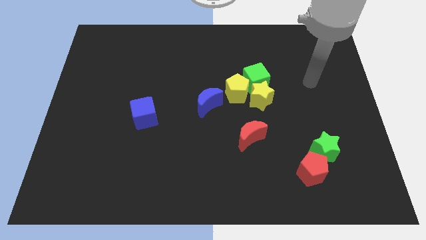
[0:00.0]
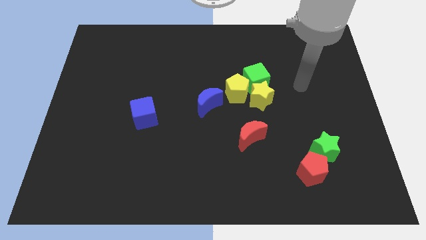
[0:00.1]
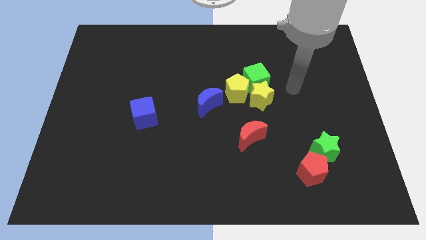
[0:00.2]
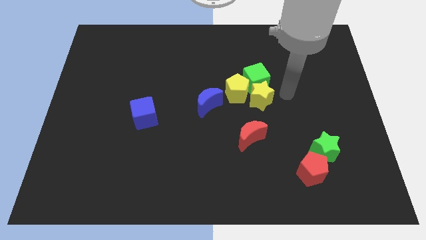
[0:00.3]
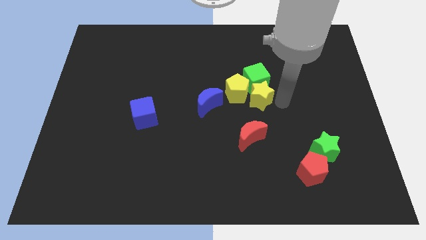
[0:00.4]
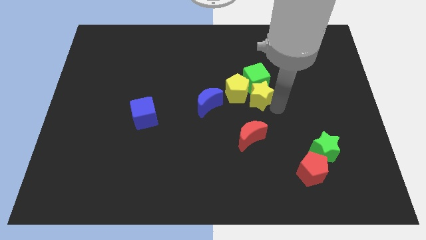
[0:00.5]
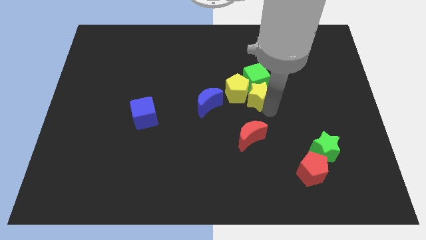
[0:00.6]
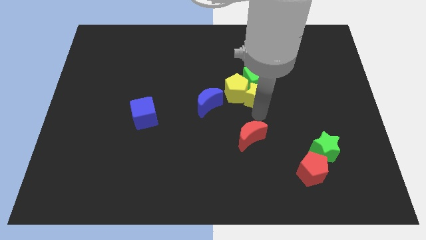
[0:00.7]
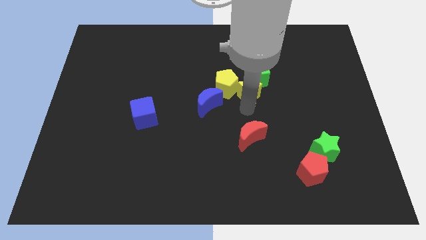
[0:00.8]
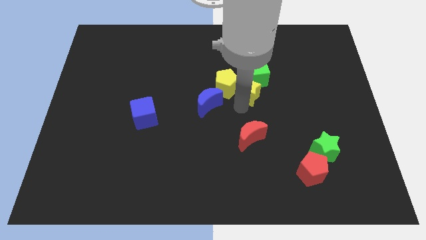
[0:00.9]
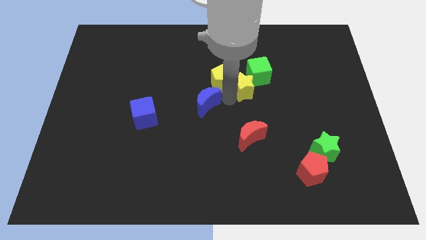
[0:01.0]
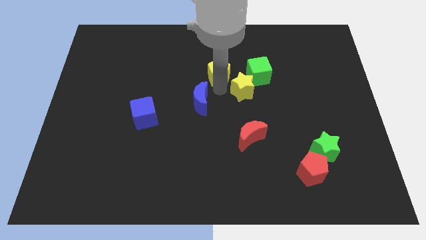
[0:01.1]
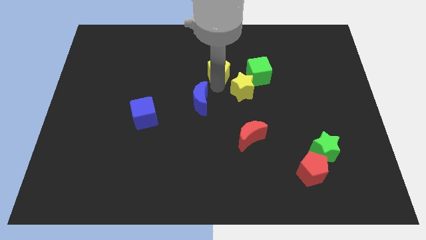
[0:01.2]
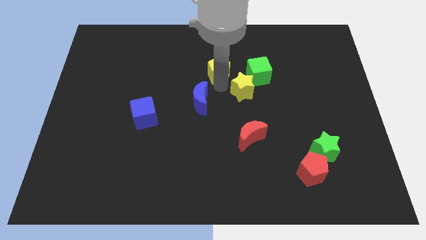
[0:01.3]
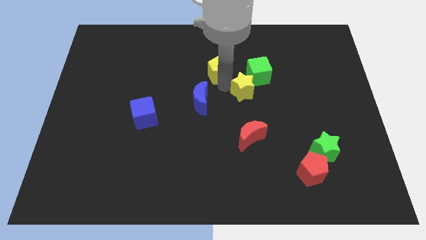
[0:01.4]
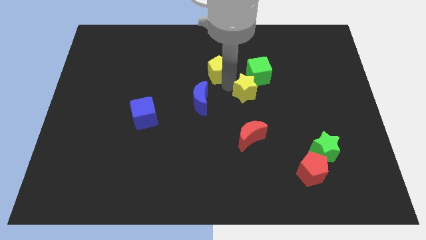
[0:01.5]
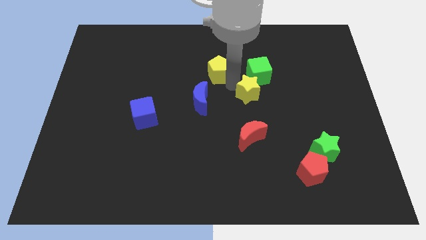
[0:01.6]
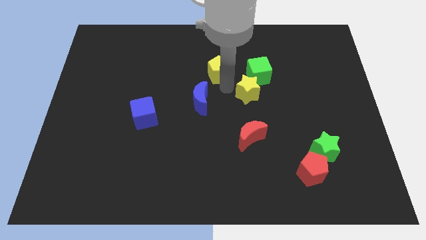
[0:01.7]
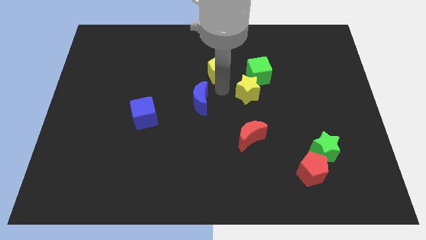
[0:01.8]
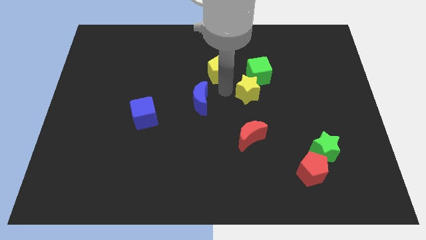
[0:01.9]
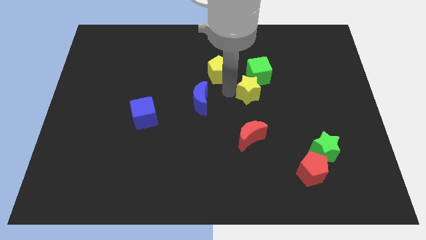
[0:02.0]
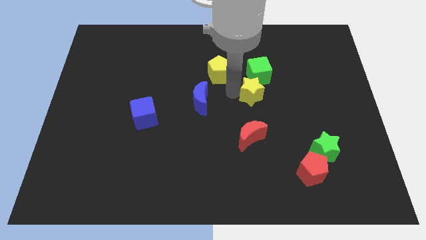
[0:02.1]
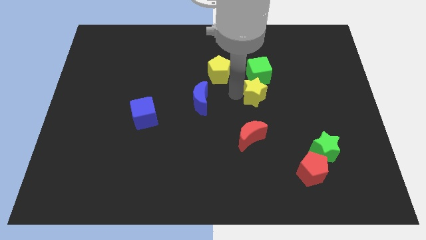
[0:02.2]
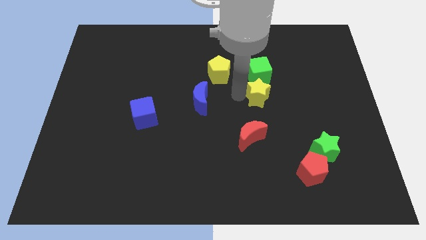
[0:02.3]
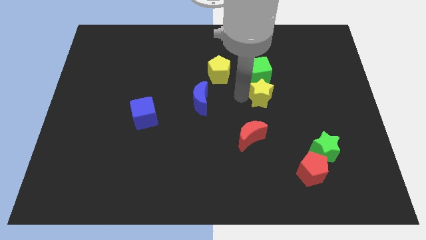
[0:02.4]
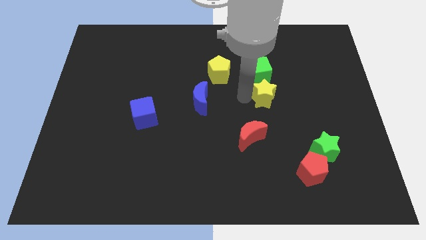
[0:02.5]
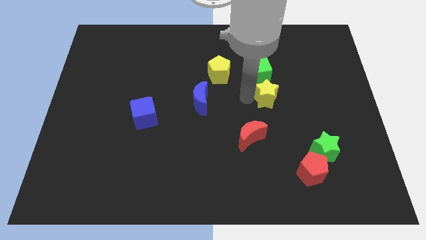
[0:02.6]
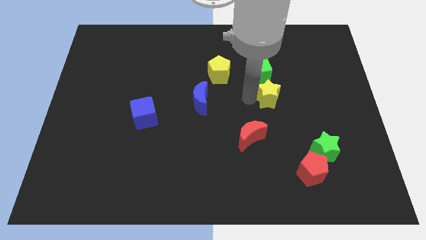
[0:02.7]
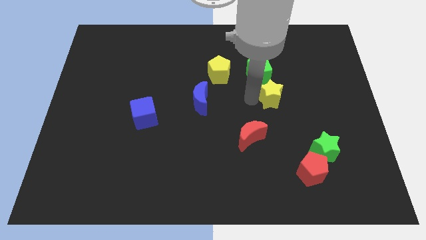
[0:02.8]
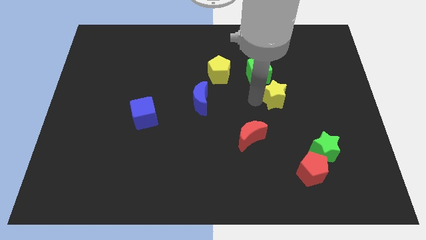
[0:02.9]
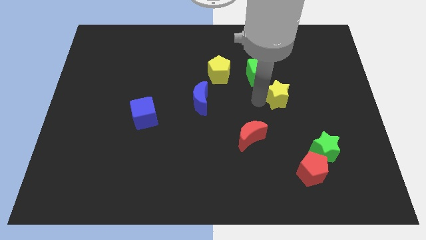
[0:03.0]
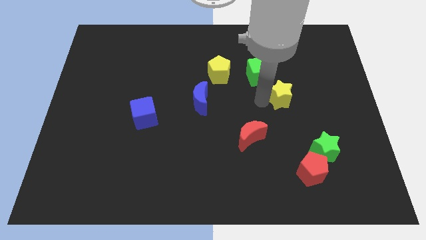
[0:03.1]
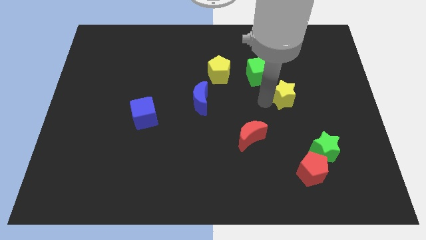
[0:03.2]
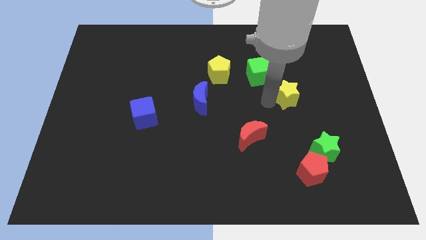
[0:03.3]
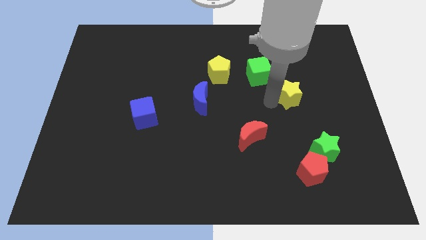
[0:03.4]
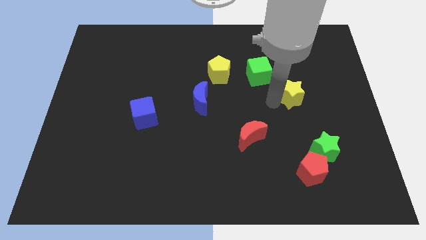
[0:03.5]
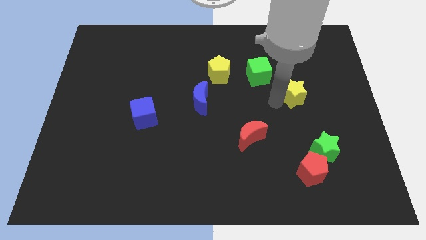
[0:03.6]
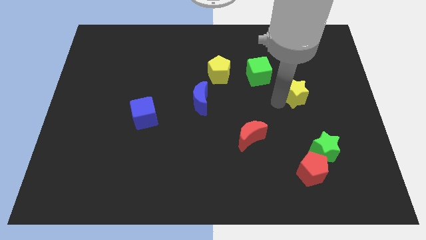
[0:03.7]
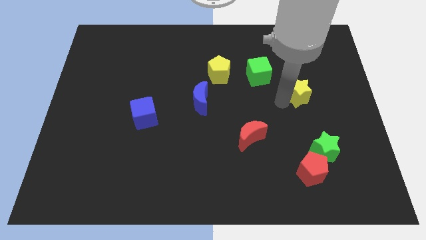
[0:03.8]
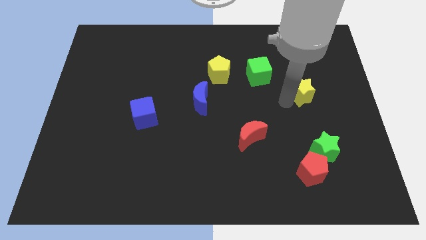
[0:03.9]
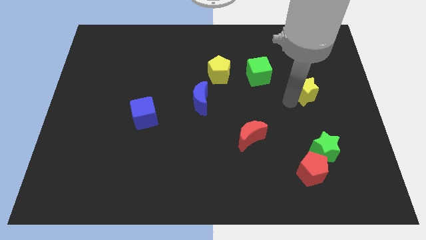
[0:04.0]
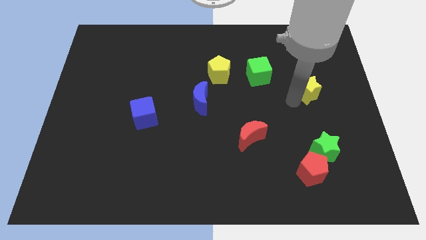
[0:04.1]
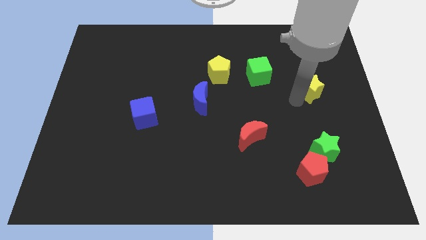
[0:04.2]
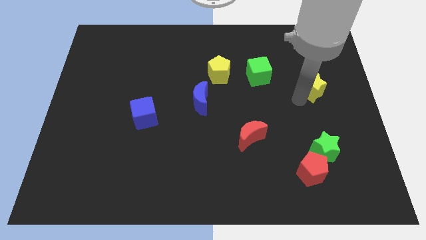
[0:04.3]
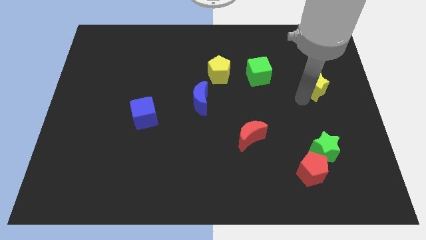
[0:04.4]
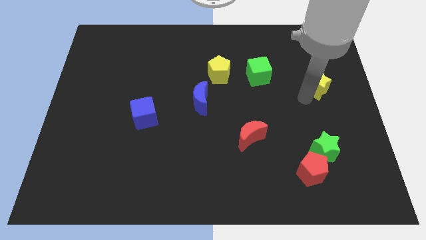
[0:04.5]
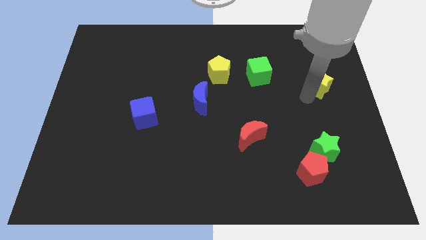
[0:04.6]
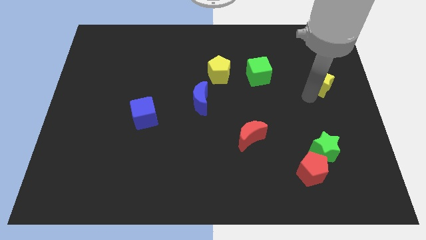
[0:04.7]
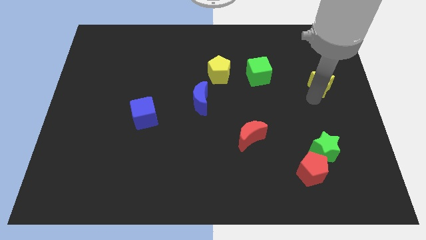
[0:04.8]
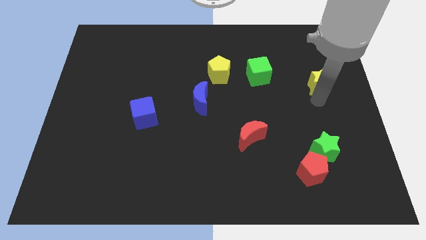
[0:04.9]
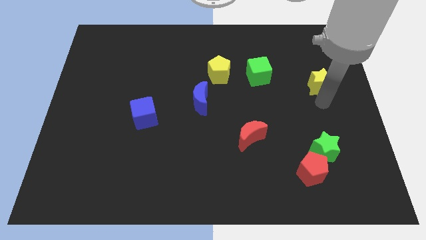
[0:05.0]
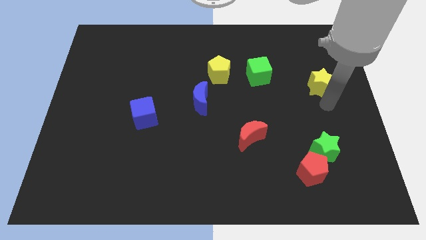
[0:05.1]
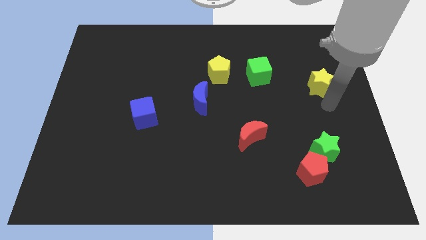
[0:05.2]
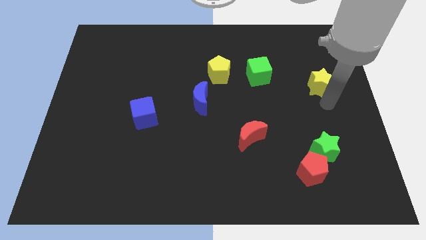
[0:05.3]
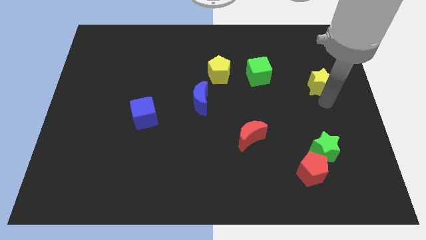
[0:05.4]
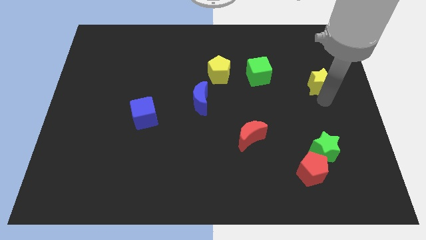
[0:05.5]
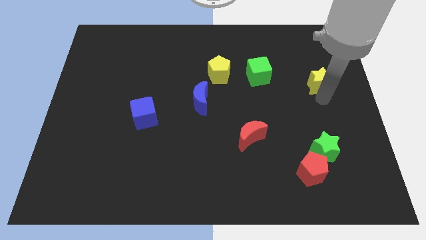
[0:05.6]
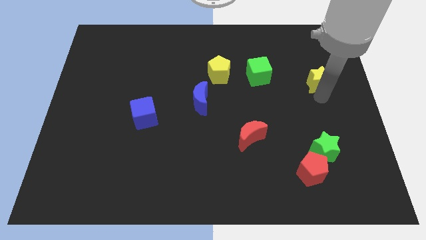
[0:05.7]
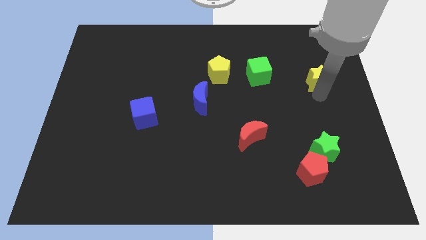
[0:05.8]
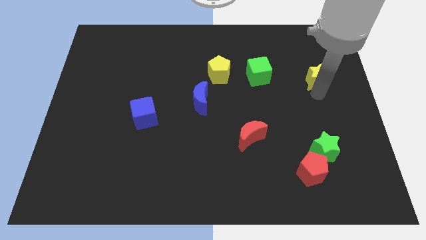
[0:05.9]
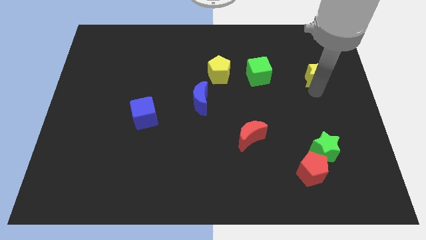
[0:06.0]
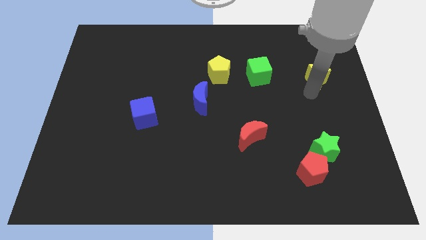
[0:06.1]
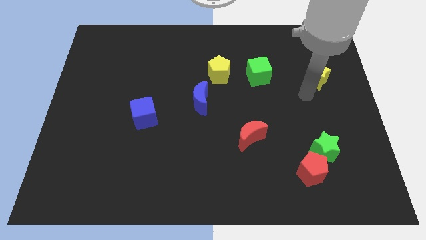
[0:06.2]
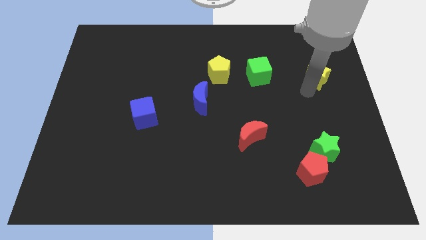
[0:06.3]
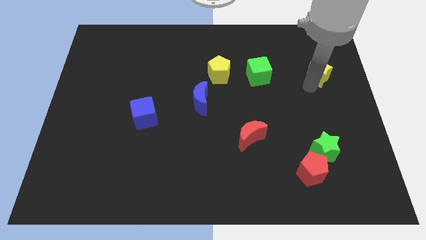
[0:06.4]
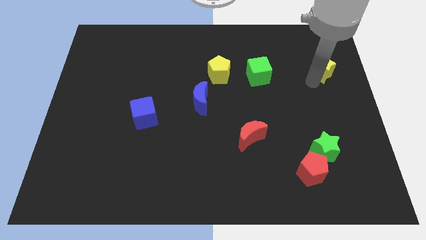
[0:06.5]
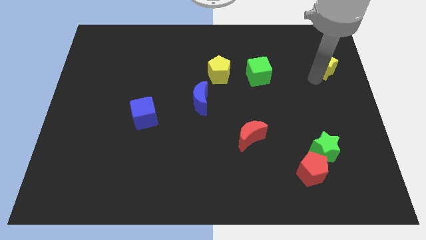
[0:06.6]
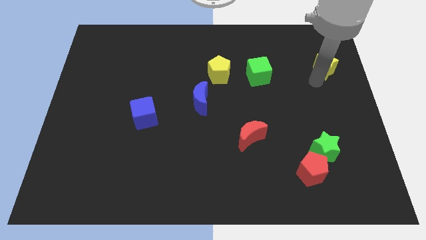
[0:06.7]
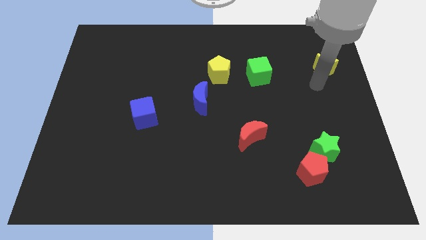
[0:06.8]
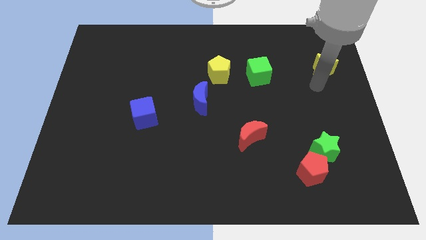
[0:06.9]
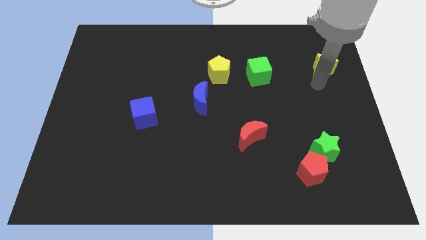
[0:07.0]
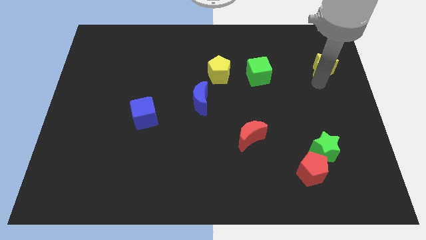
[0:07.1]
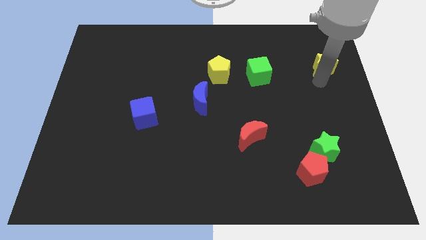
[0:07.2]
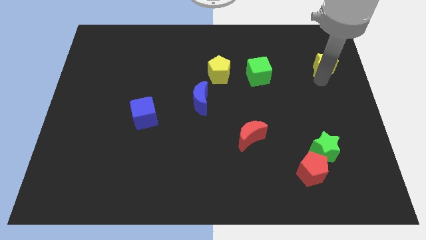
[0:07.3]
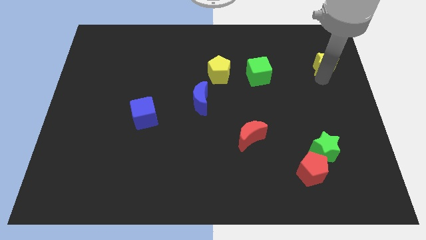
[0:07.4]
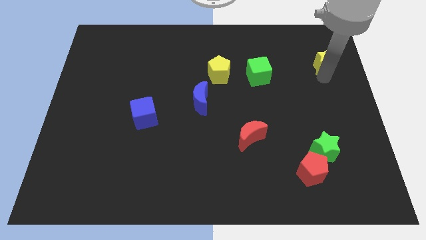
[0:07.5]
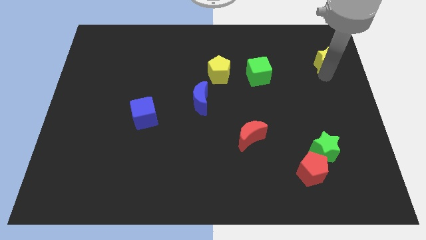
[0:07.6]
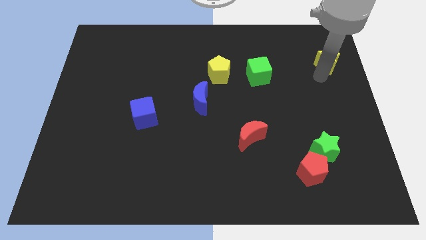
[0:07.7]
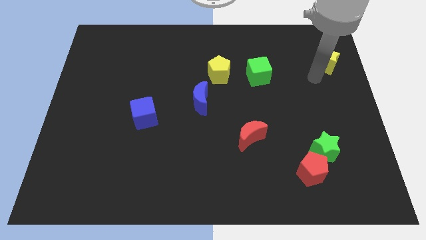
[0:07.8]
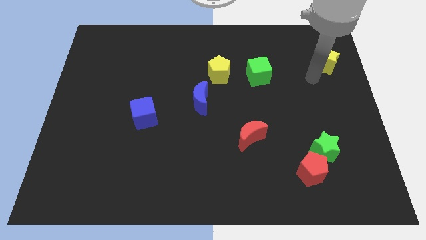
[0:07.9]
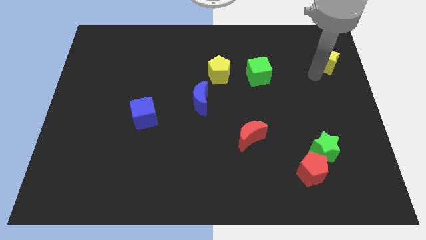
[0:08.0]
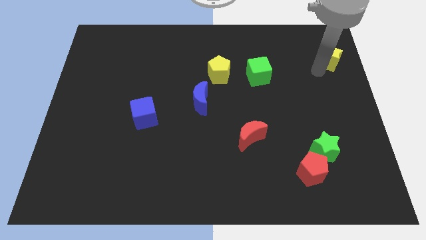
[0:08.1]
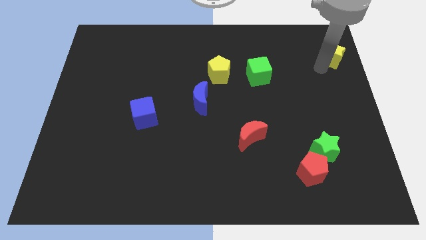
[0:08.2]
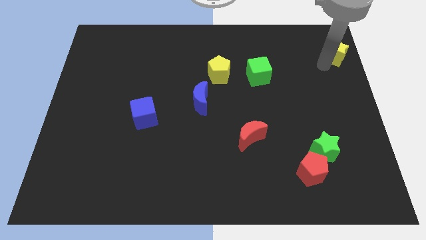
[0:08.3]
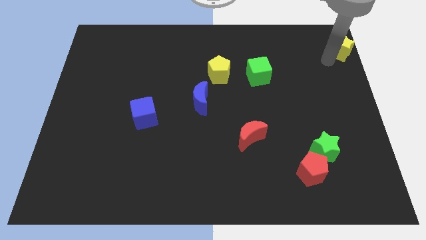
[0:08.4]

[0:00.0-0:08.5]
slide the yellow star to the top right of the board
